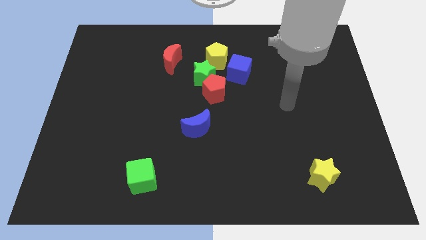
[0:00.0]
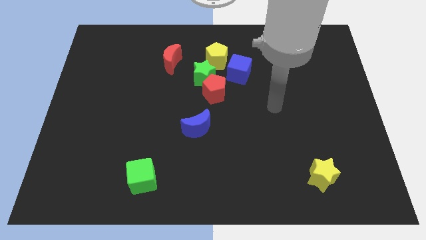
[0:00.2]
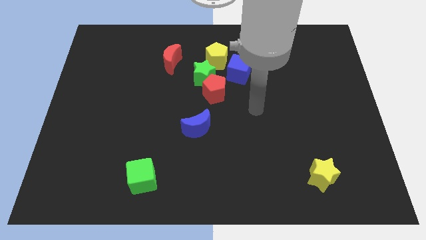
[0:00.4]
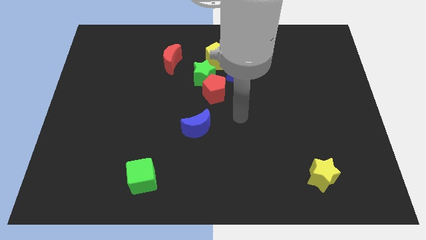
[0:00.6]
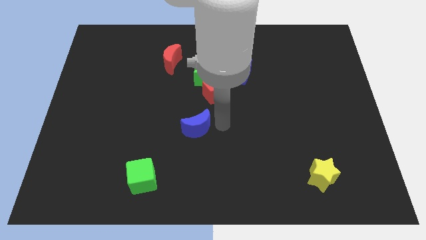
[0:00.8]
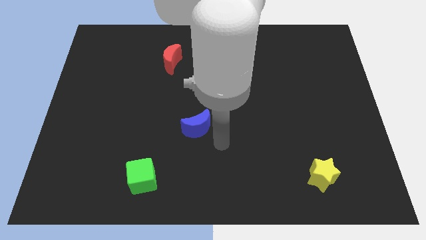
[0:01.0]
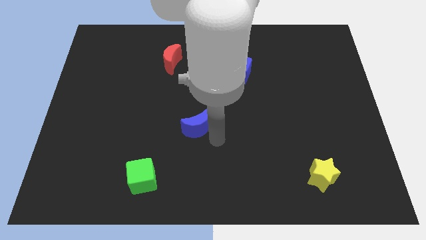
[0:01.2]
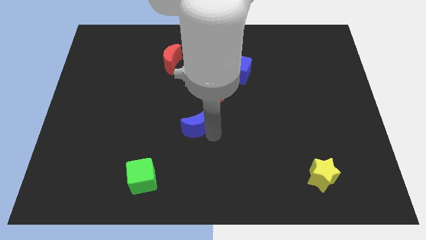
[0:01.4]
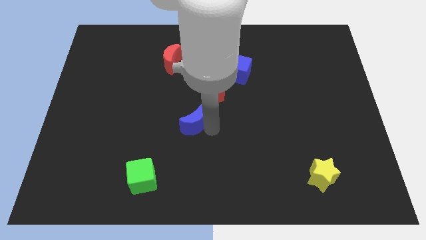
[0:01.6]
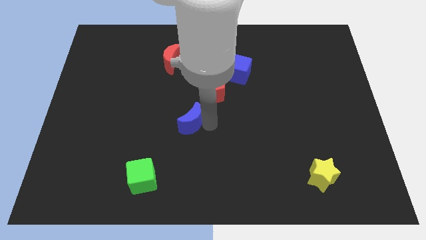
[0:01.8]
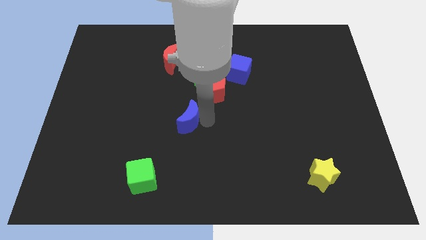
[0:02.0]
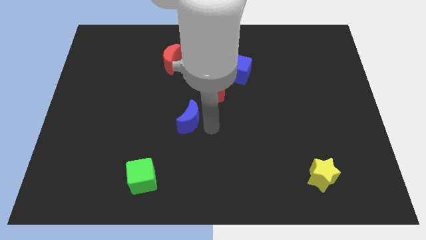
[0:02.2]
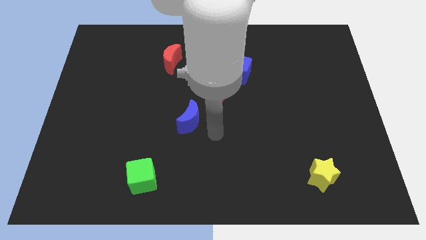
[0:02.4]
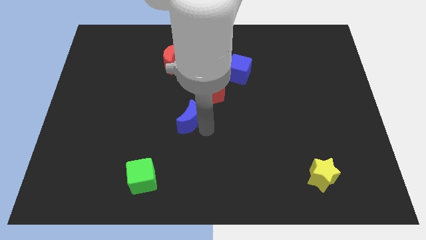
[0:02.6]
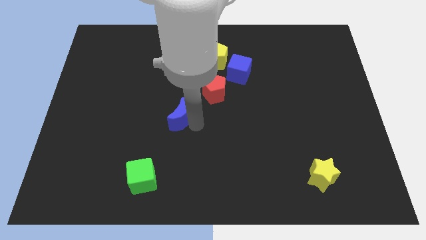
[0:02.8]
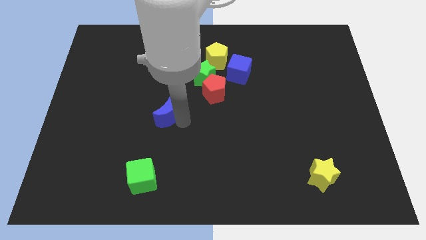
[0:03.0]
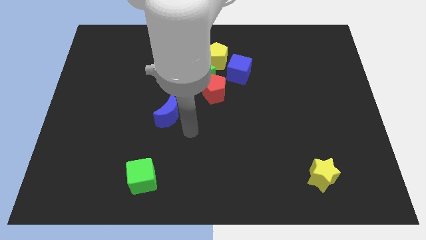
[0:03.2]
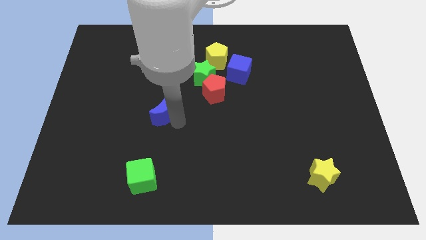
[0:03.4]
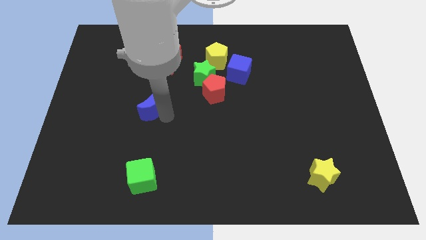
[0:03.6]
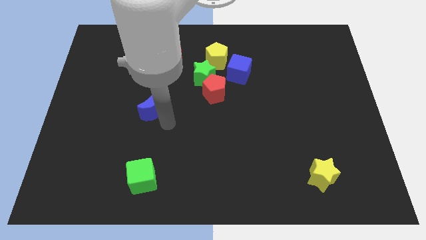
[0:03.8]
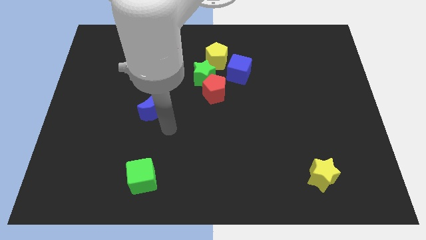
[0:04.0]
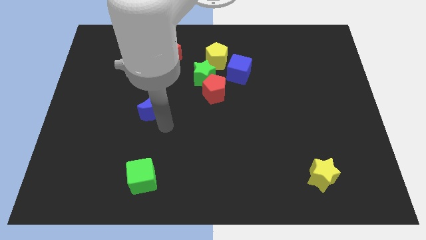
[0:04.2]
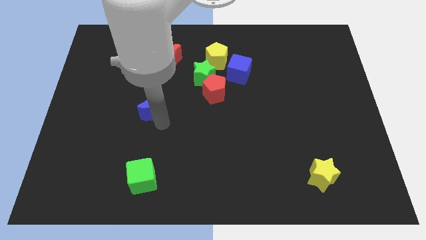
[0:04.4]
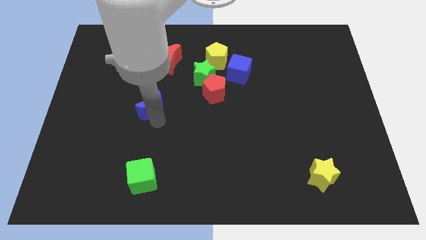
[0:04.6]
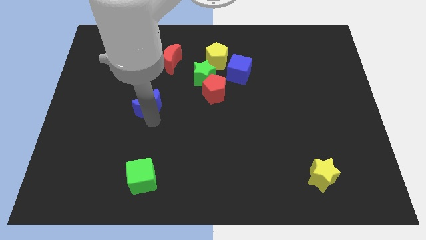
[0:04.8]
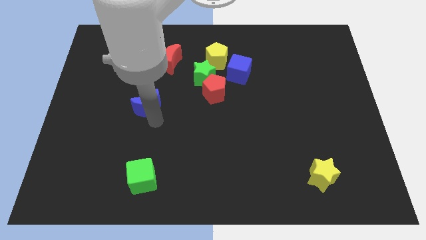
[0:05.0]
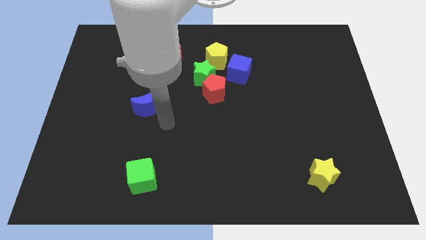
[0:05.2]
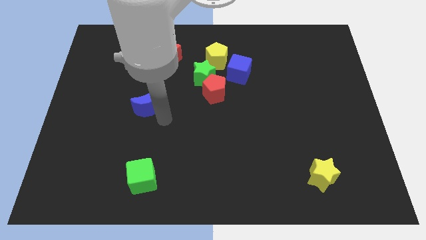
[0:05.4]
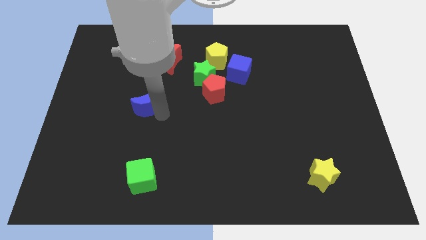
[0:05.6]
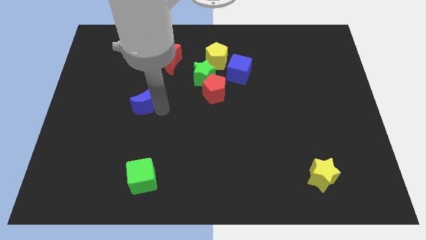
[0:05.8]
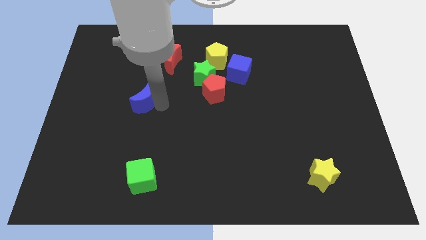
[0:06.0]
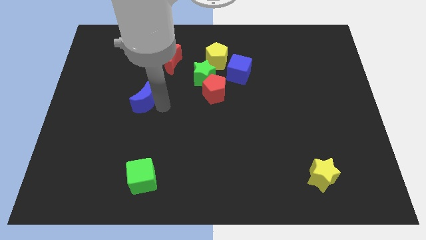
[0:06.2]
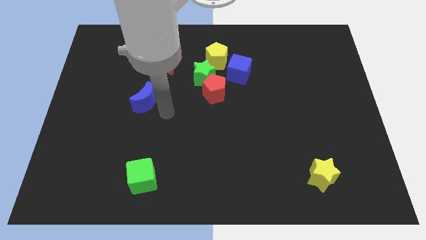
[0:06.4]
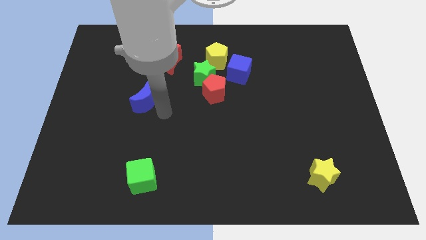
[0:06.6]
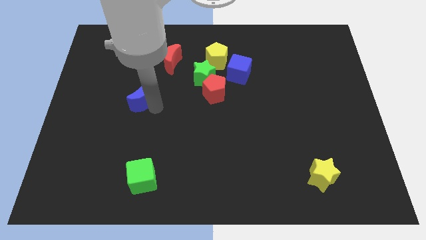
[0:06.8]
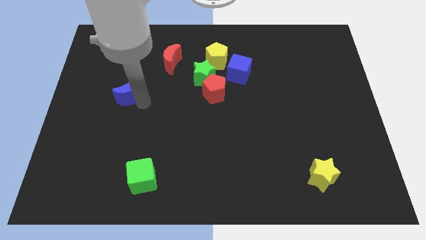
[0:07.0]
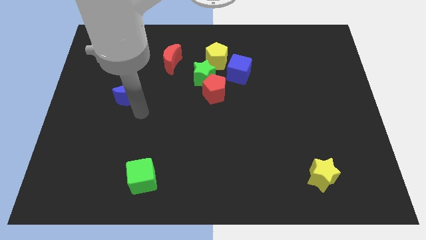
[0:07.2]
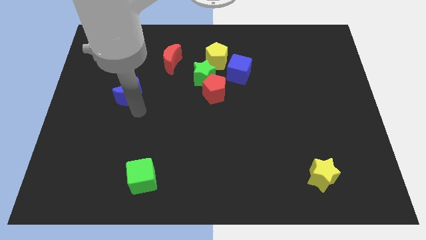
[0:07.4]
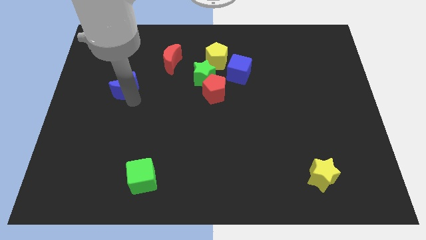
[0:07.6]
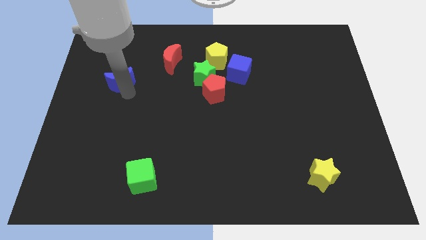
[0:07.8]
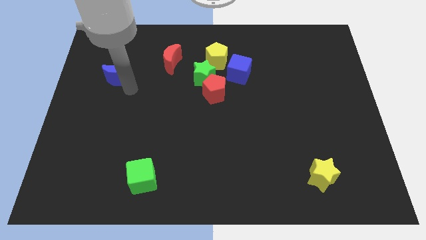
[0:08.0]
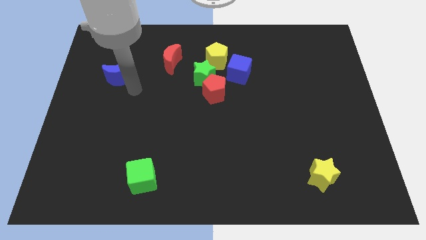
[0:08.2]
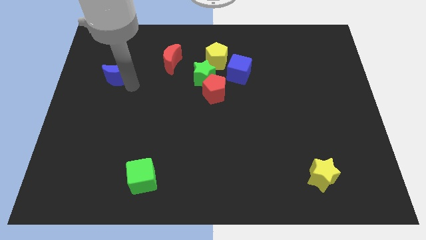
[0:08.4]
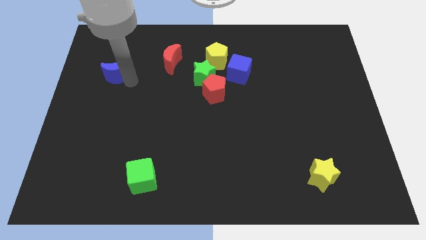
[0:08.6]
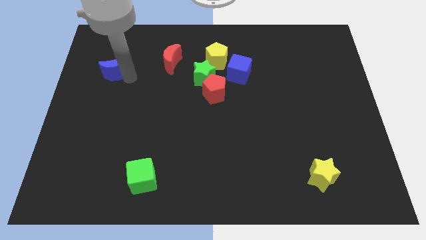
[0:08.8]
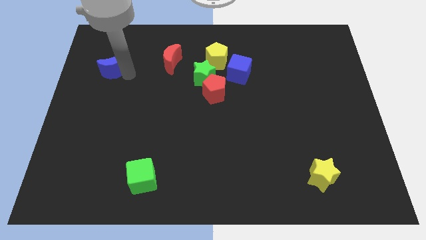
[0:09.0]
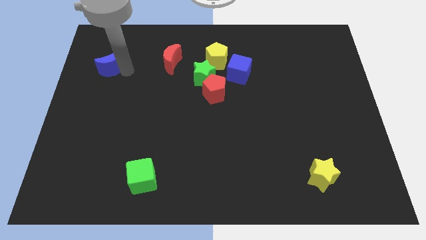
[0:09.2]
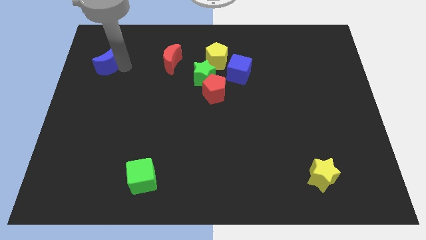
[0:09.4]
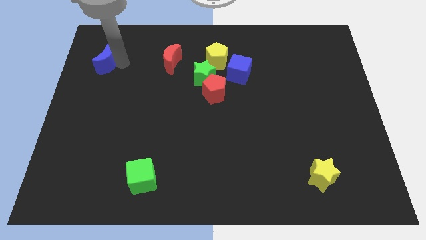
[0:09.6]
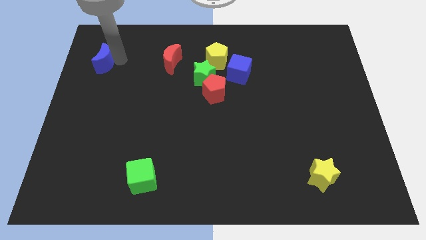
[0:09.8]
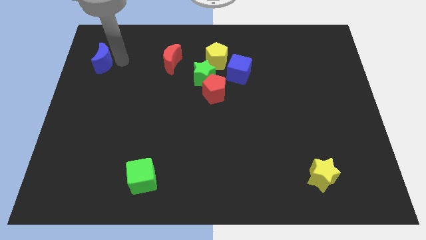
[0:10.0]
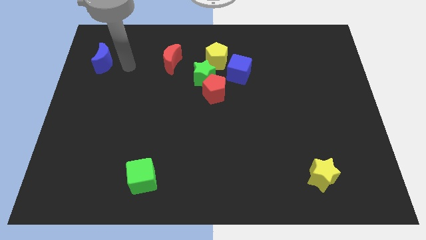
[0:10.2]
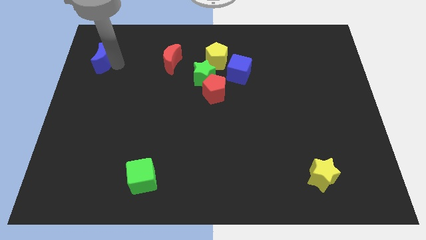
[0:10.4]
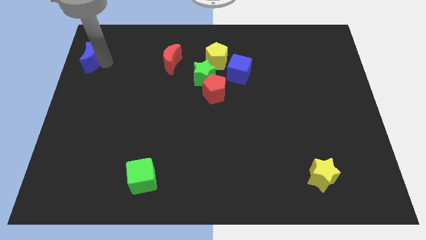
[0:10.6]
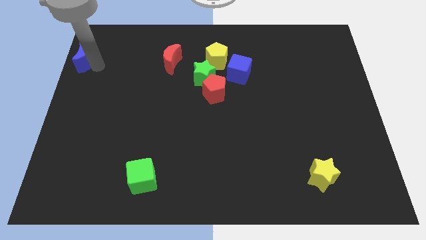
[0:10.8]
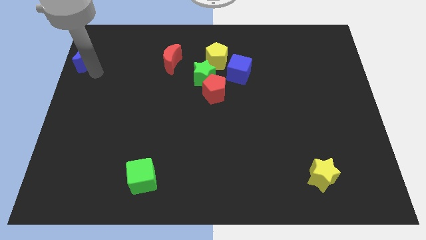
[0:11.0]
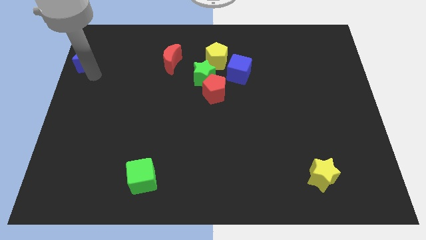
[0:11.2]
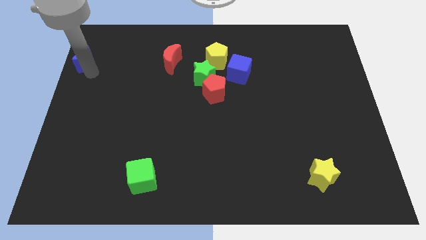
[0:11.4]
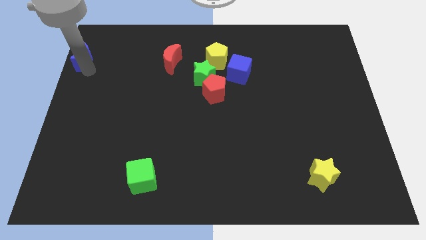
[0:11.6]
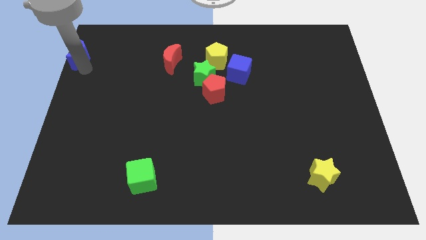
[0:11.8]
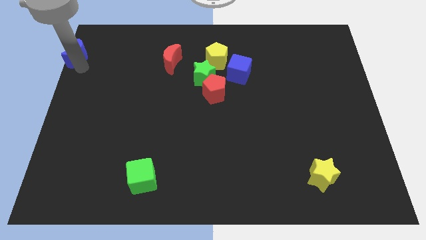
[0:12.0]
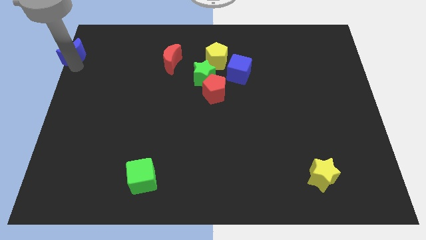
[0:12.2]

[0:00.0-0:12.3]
slide the blue moon to the top left corner
